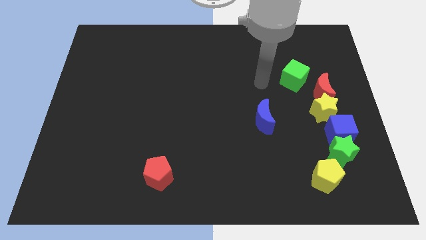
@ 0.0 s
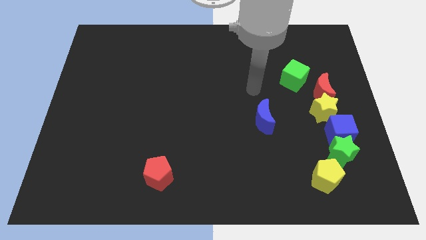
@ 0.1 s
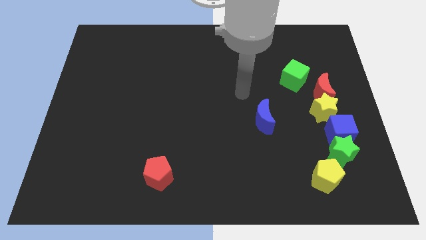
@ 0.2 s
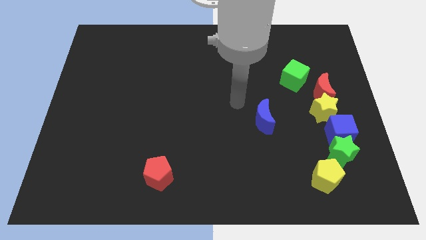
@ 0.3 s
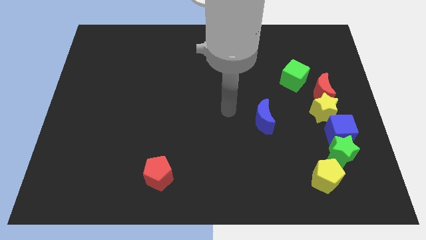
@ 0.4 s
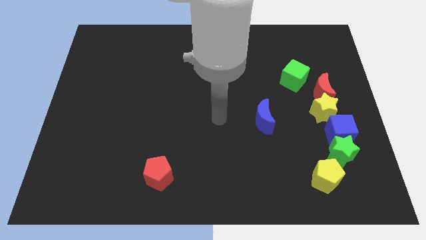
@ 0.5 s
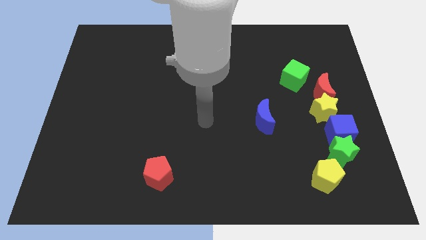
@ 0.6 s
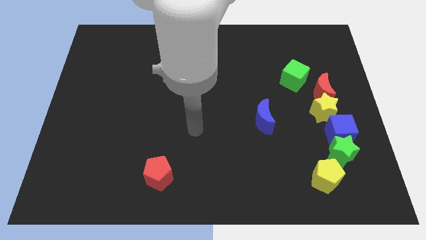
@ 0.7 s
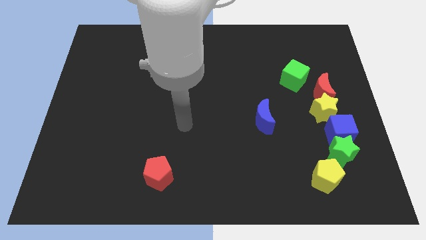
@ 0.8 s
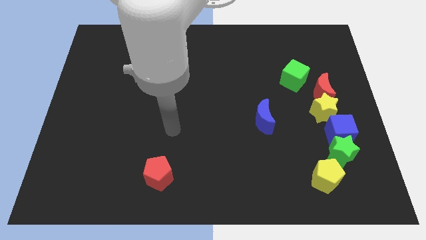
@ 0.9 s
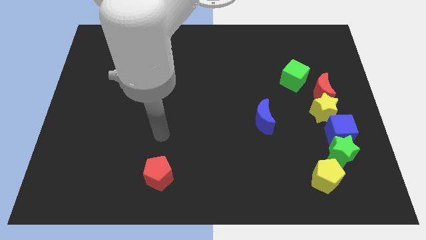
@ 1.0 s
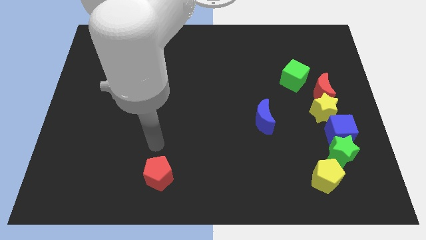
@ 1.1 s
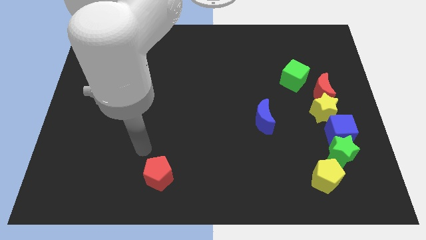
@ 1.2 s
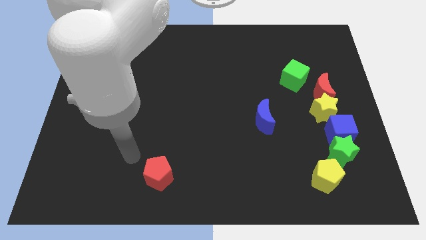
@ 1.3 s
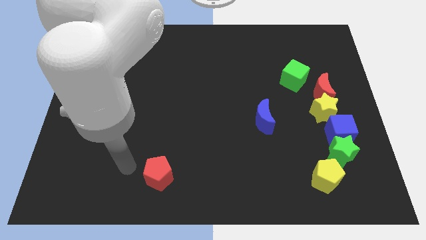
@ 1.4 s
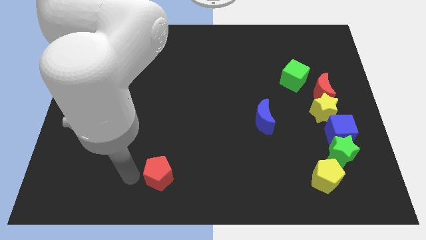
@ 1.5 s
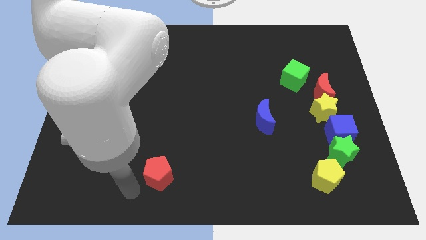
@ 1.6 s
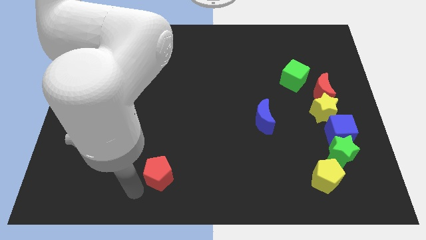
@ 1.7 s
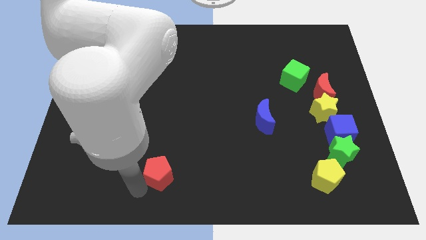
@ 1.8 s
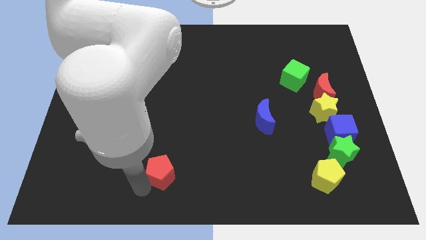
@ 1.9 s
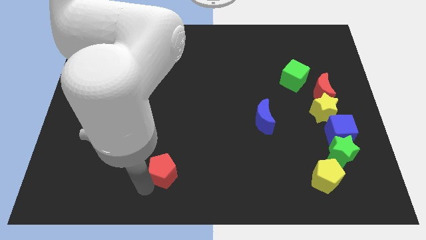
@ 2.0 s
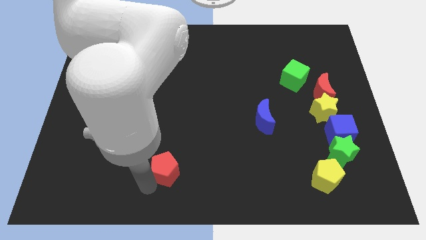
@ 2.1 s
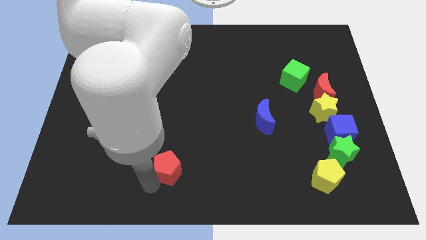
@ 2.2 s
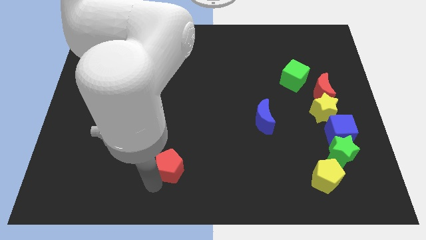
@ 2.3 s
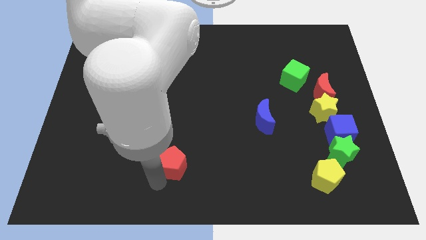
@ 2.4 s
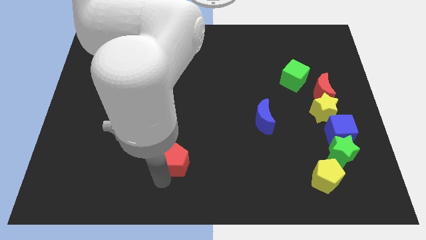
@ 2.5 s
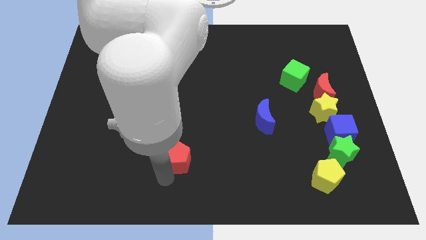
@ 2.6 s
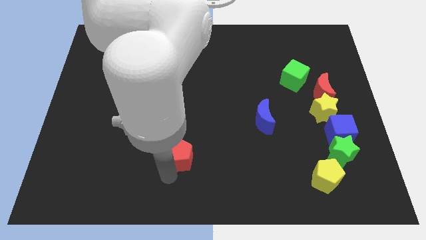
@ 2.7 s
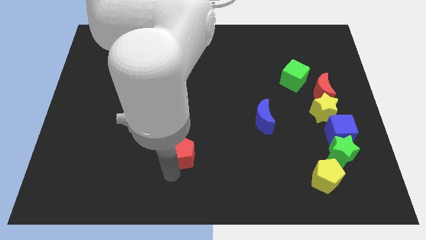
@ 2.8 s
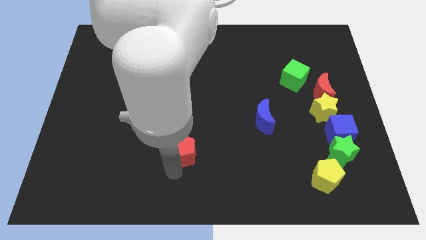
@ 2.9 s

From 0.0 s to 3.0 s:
push the red pentagon a little bit diagonally upwards and to the right

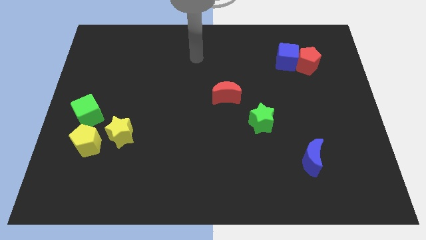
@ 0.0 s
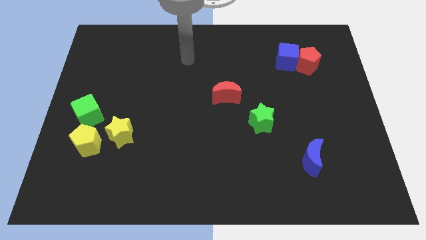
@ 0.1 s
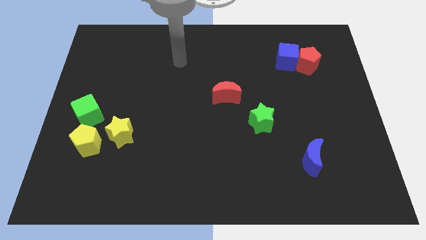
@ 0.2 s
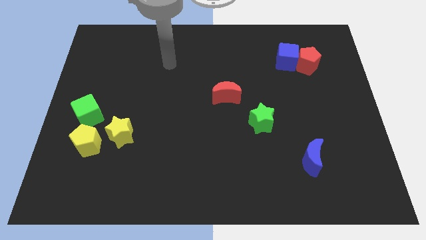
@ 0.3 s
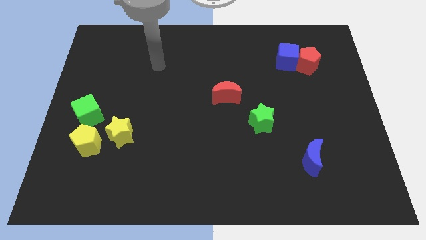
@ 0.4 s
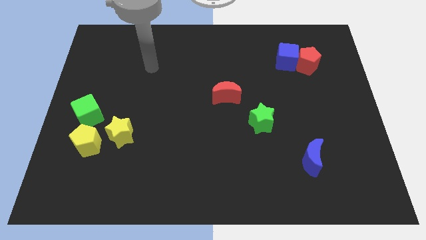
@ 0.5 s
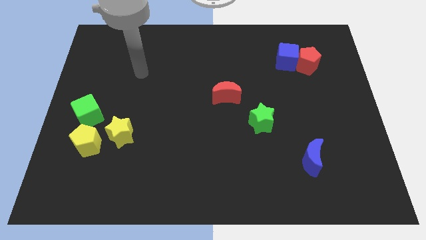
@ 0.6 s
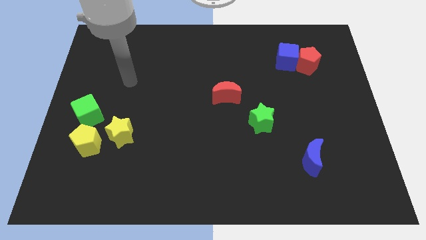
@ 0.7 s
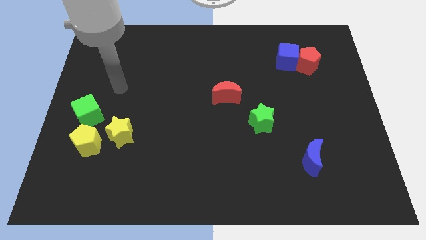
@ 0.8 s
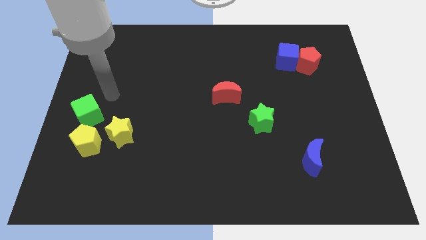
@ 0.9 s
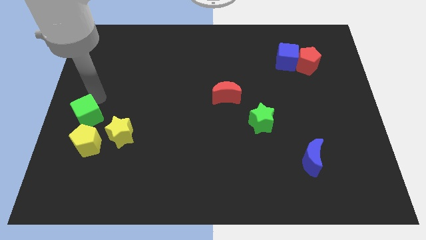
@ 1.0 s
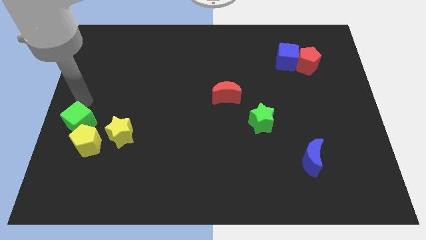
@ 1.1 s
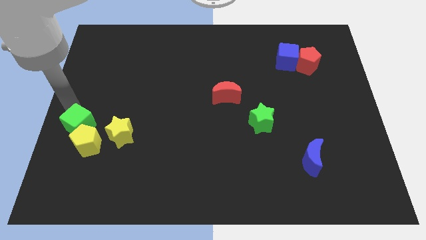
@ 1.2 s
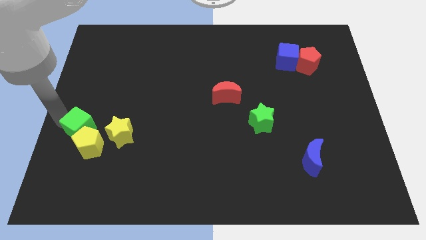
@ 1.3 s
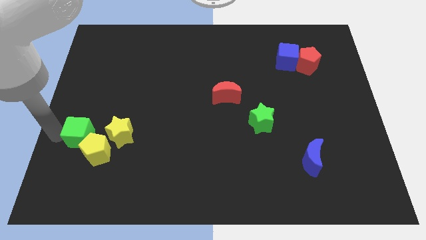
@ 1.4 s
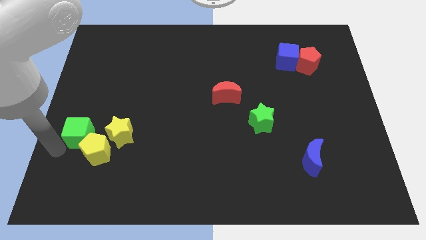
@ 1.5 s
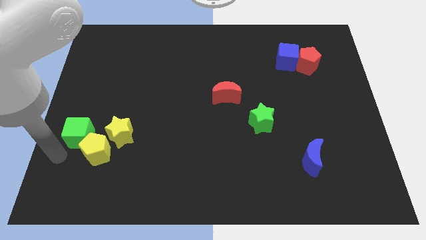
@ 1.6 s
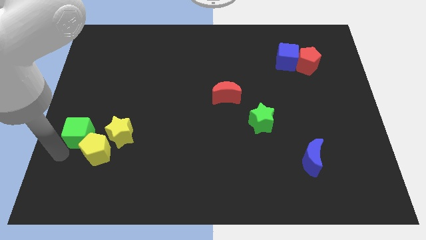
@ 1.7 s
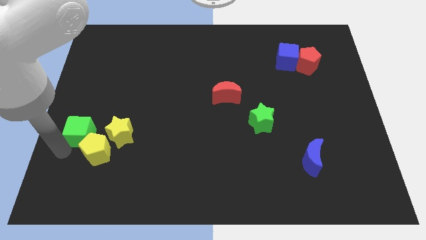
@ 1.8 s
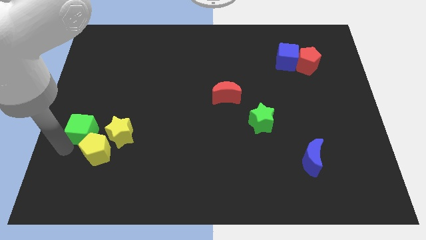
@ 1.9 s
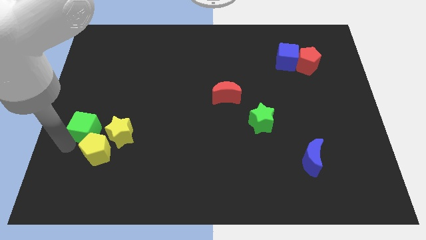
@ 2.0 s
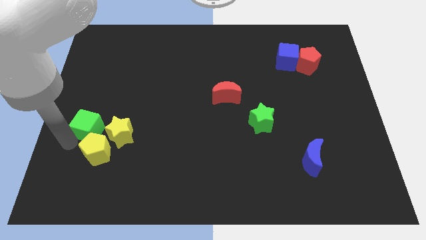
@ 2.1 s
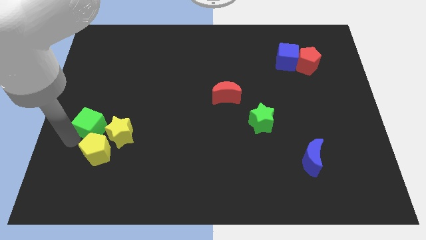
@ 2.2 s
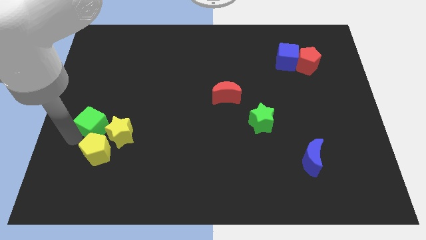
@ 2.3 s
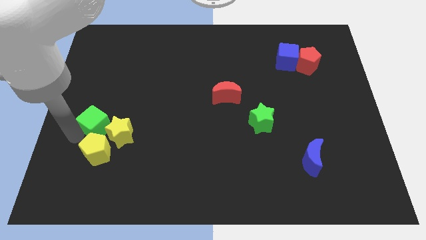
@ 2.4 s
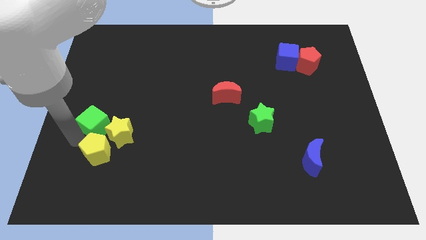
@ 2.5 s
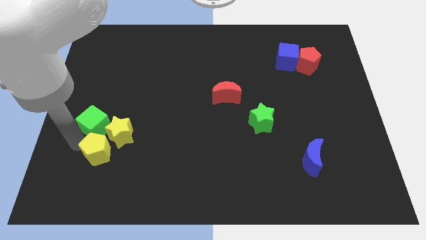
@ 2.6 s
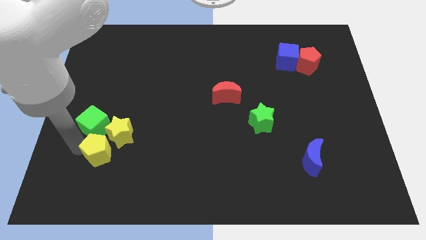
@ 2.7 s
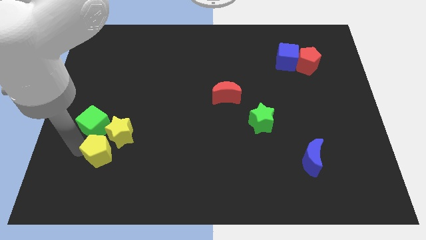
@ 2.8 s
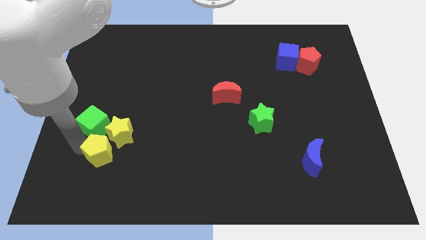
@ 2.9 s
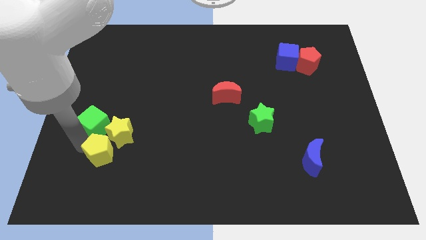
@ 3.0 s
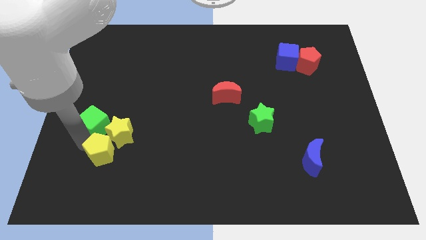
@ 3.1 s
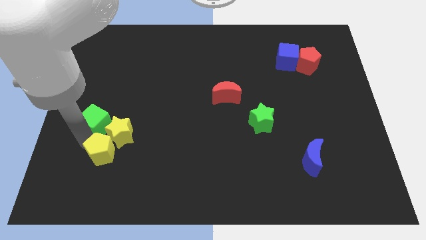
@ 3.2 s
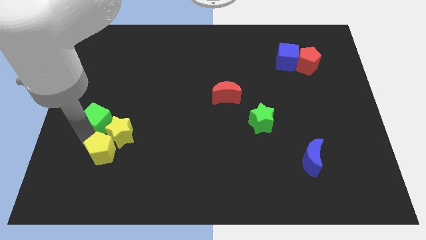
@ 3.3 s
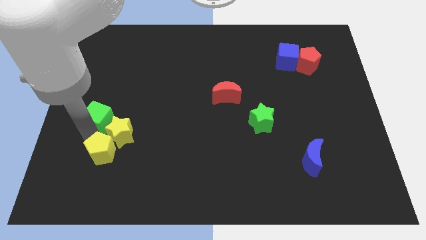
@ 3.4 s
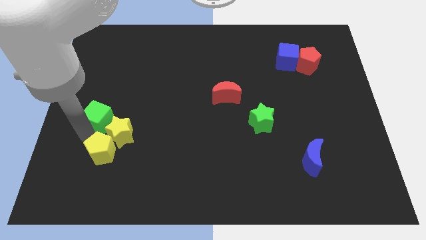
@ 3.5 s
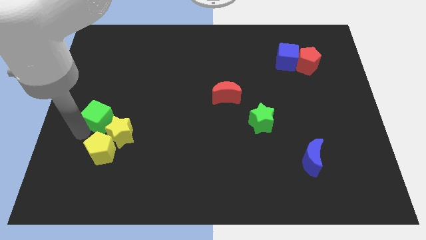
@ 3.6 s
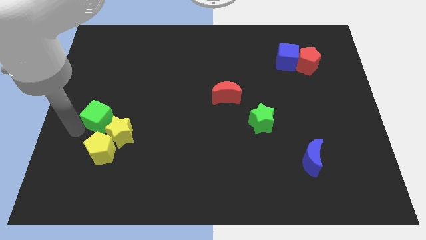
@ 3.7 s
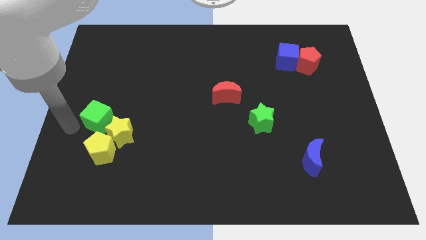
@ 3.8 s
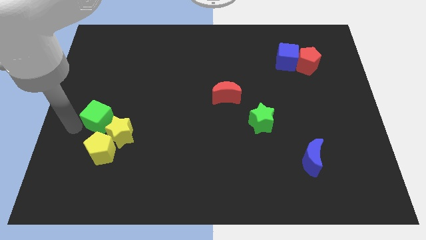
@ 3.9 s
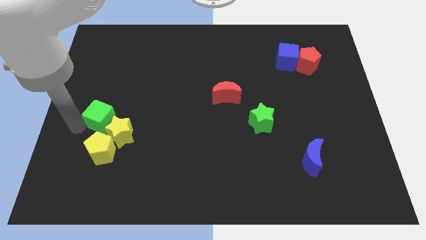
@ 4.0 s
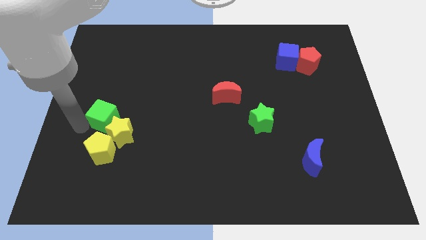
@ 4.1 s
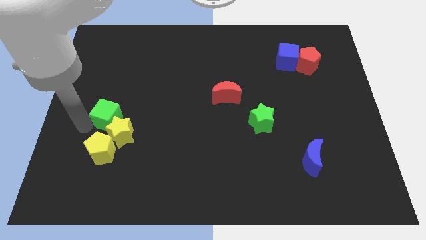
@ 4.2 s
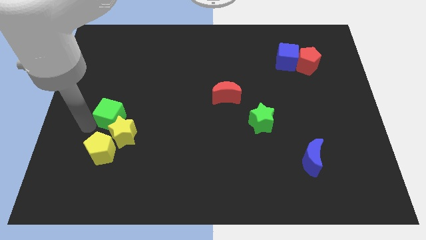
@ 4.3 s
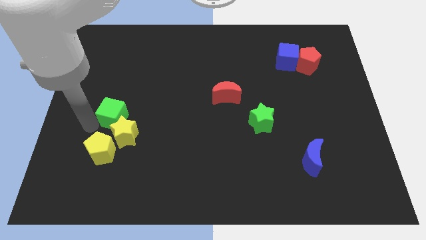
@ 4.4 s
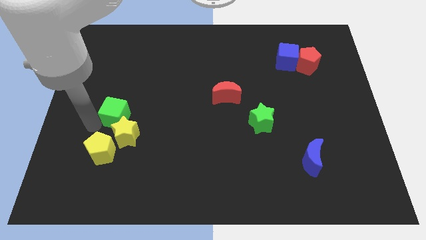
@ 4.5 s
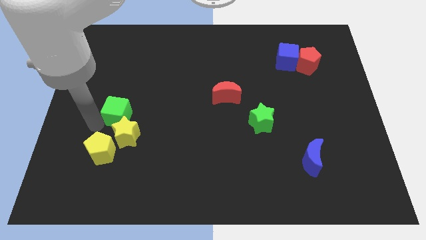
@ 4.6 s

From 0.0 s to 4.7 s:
slightly push the green cube right

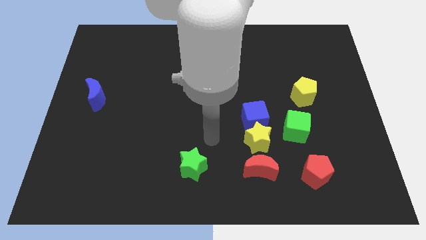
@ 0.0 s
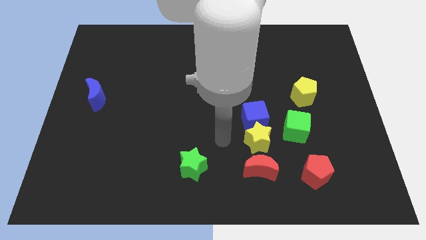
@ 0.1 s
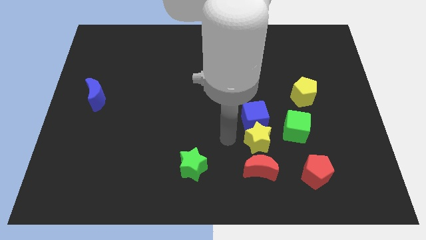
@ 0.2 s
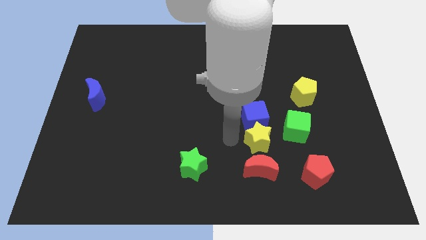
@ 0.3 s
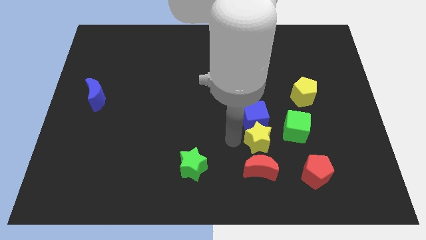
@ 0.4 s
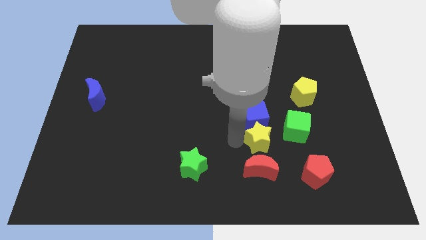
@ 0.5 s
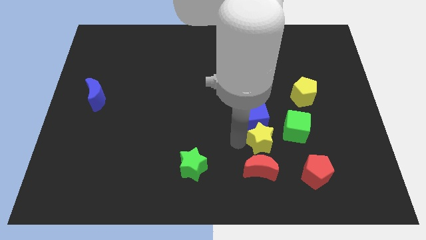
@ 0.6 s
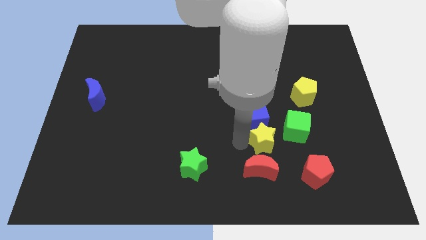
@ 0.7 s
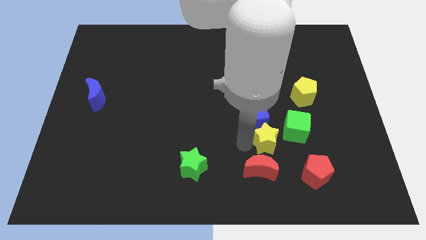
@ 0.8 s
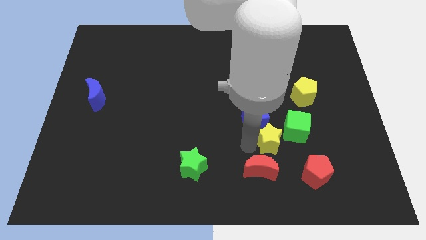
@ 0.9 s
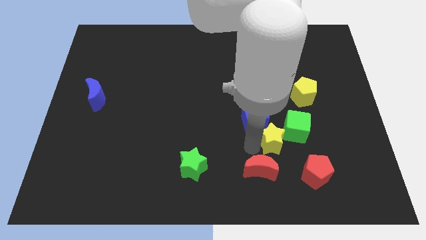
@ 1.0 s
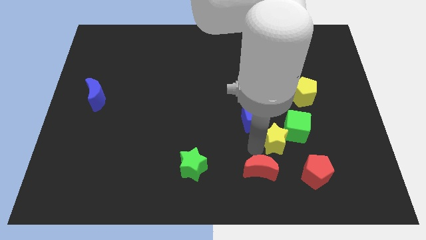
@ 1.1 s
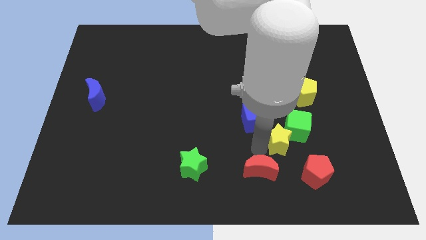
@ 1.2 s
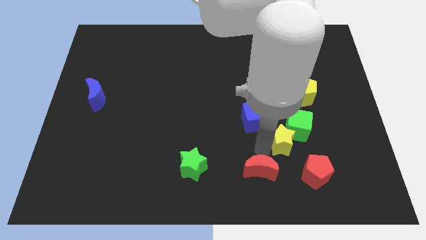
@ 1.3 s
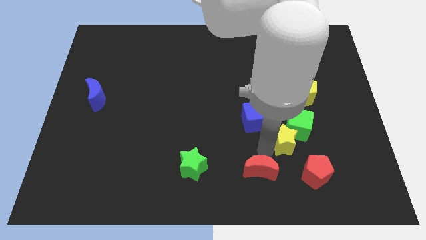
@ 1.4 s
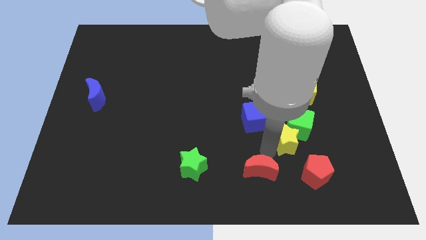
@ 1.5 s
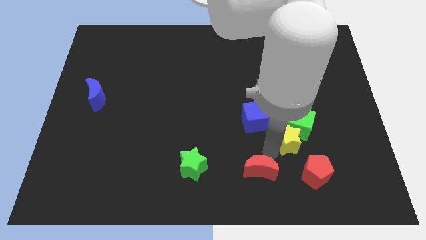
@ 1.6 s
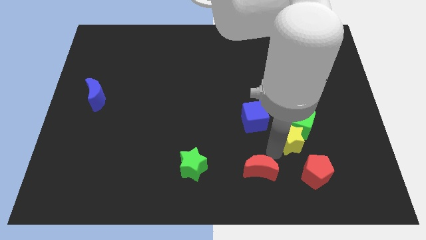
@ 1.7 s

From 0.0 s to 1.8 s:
slide the yellow star to the right a little
